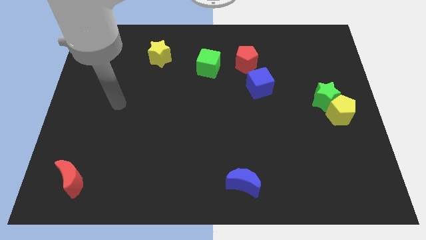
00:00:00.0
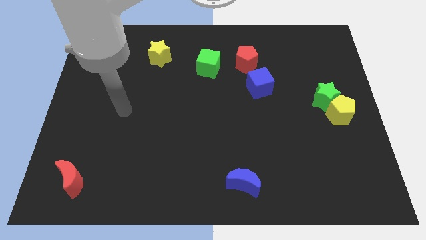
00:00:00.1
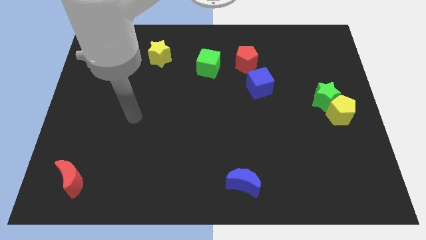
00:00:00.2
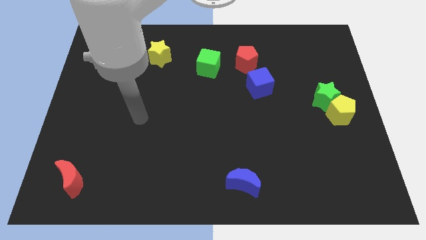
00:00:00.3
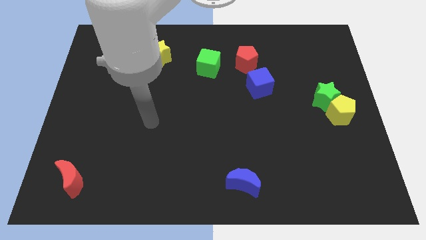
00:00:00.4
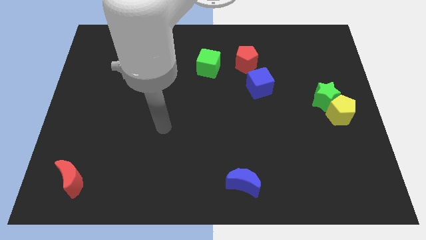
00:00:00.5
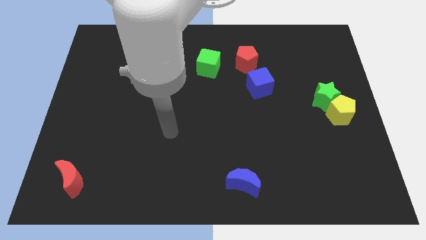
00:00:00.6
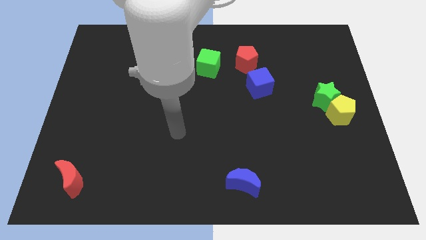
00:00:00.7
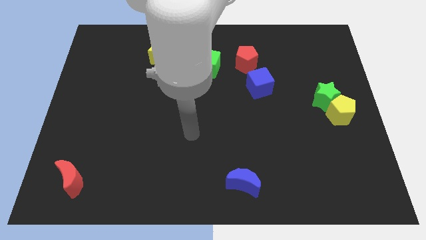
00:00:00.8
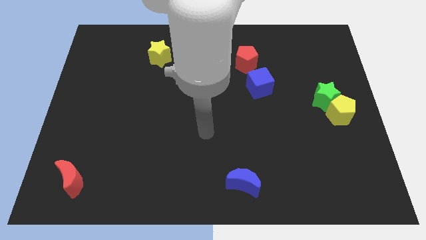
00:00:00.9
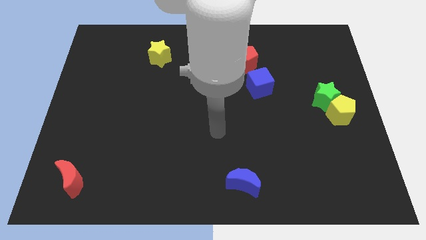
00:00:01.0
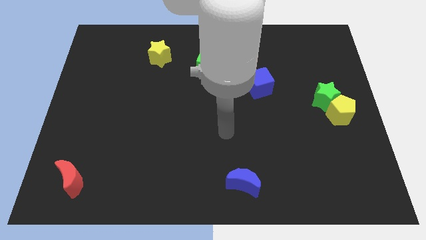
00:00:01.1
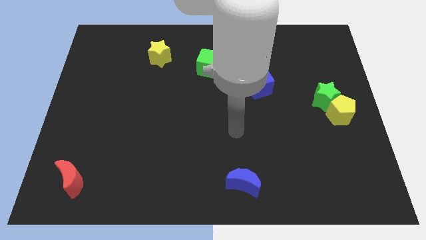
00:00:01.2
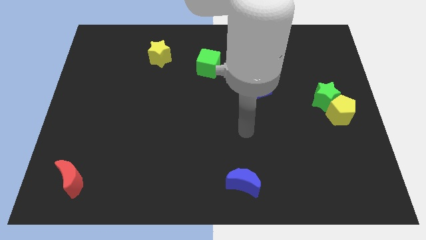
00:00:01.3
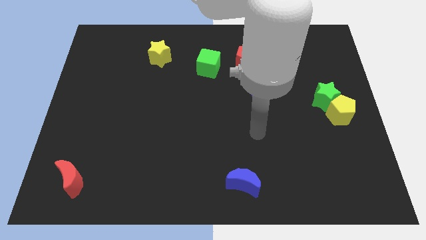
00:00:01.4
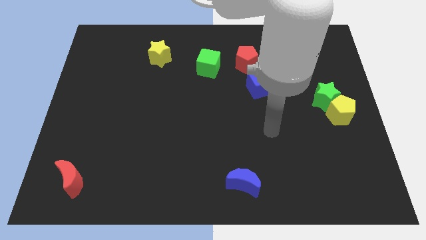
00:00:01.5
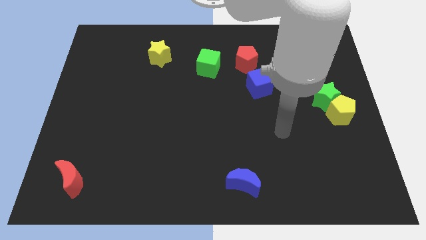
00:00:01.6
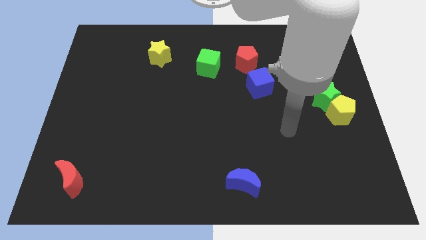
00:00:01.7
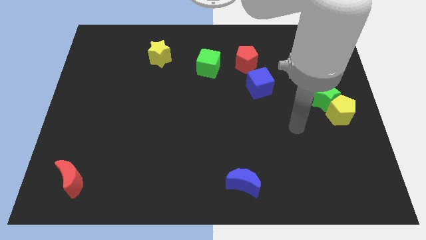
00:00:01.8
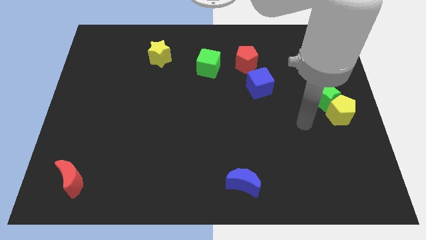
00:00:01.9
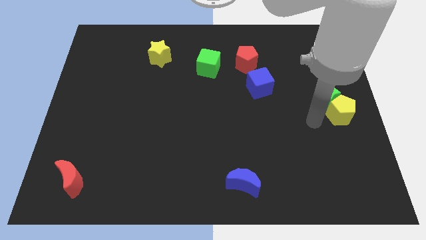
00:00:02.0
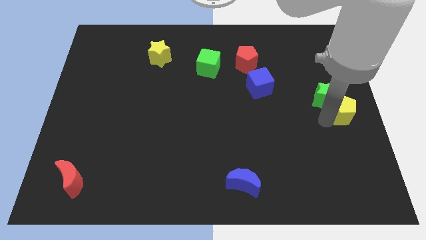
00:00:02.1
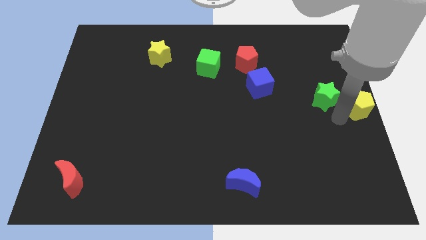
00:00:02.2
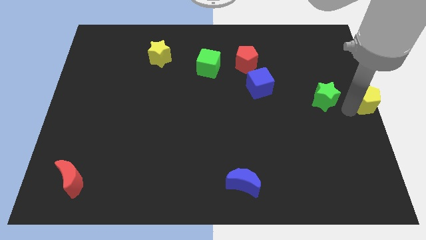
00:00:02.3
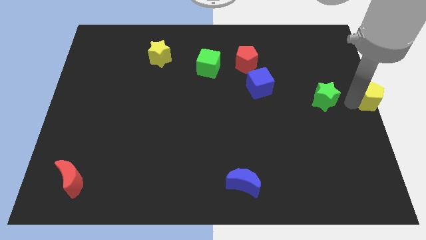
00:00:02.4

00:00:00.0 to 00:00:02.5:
pull the green star apart from the yellow pentagon

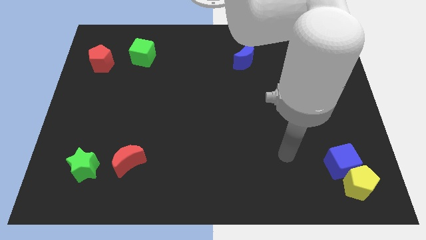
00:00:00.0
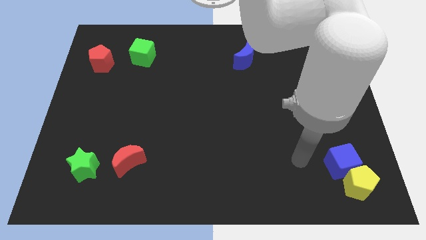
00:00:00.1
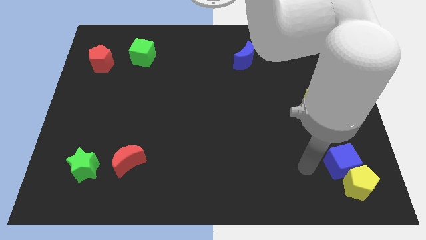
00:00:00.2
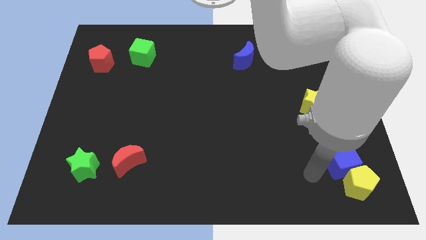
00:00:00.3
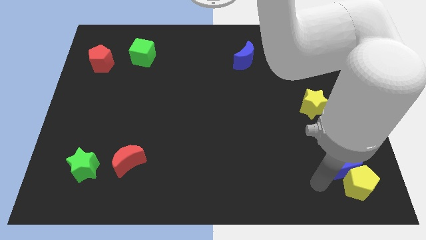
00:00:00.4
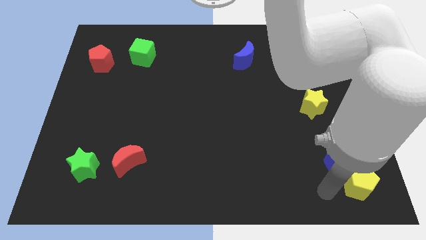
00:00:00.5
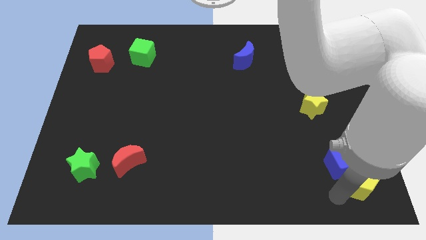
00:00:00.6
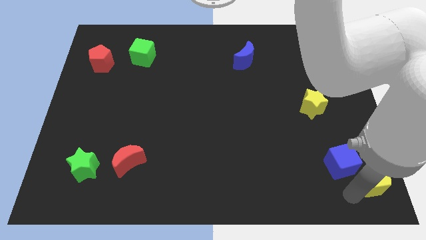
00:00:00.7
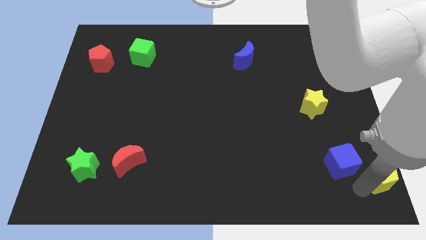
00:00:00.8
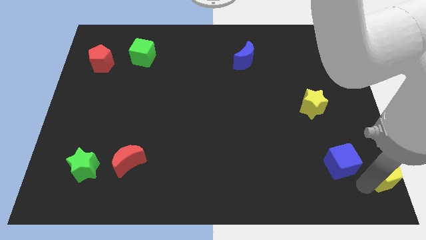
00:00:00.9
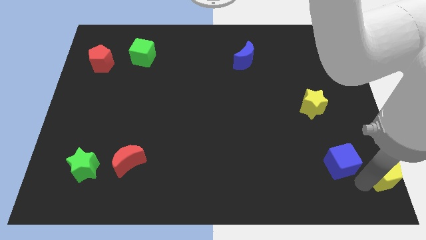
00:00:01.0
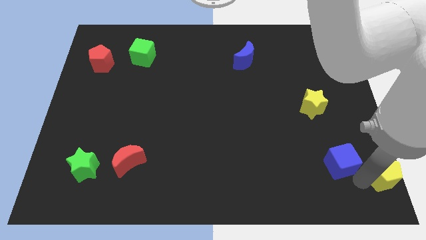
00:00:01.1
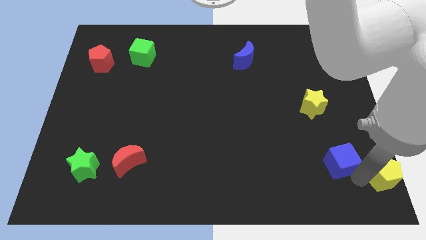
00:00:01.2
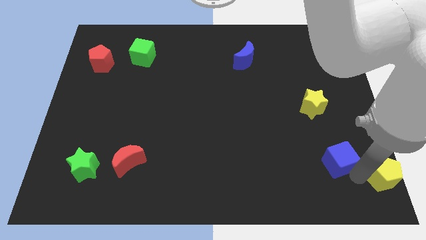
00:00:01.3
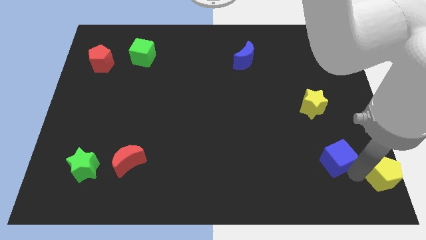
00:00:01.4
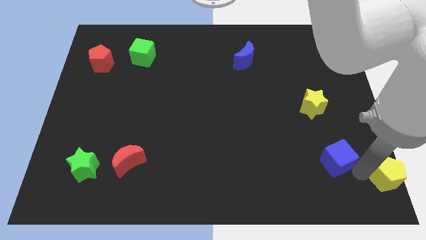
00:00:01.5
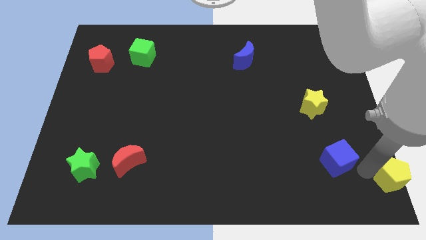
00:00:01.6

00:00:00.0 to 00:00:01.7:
separate the blue cube from the yellow pentagon

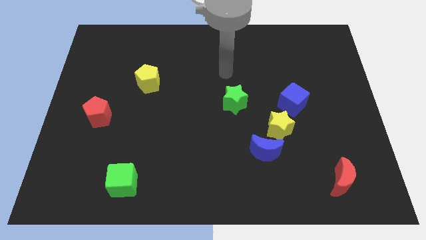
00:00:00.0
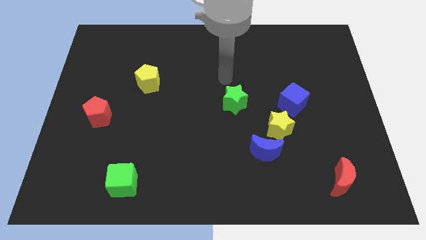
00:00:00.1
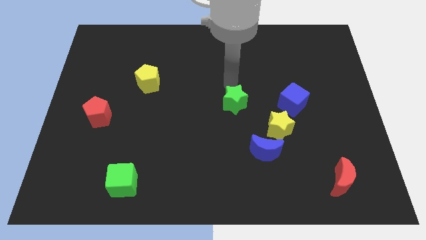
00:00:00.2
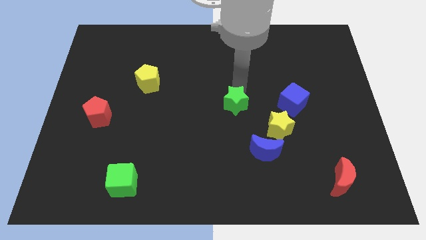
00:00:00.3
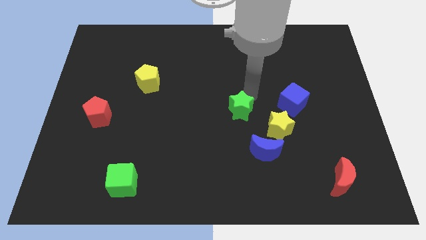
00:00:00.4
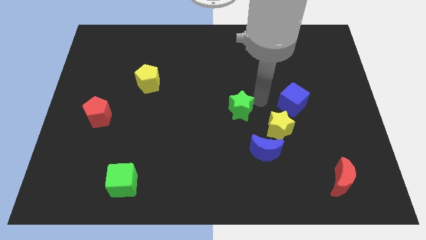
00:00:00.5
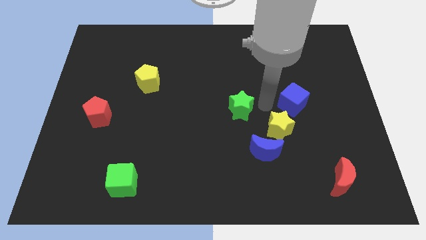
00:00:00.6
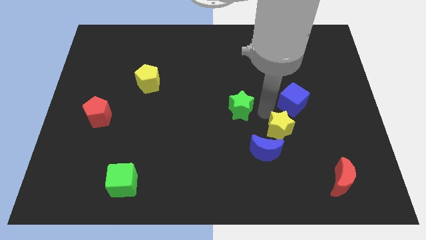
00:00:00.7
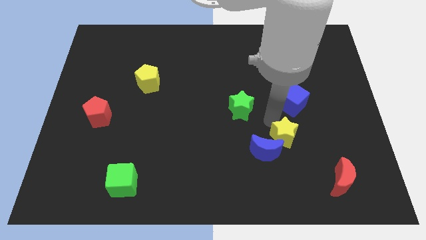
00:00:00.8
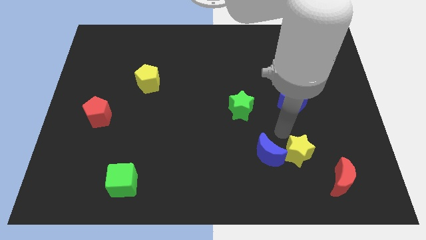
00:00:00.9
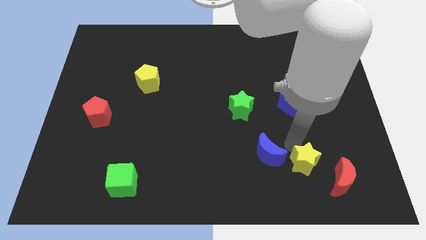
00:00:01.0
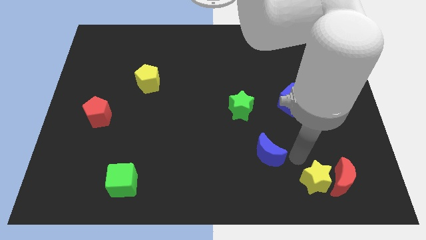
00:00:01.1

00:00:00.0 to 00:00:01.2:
separate the blue moon from the yellow star

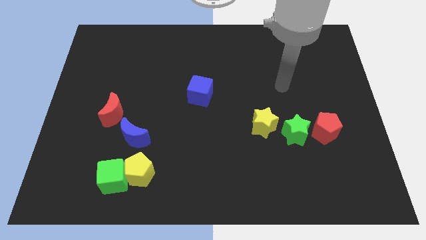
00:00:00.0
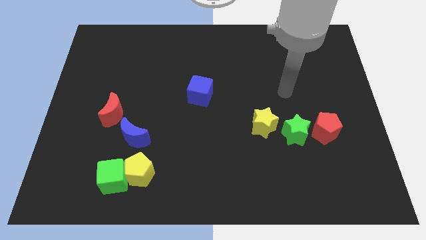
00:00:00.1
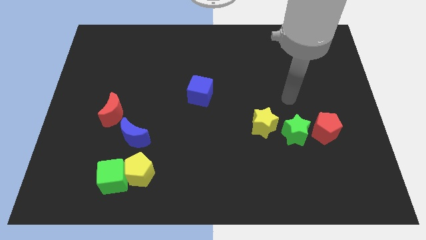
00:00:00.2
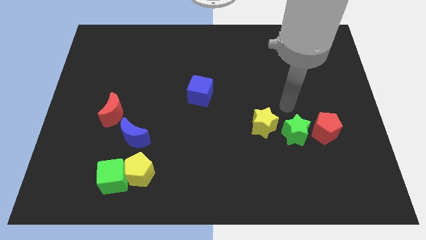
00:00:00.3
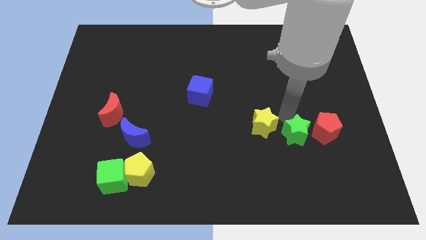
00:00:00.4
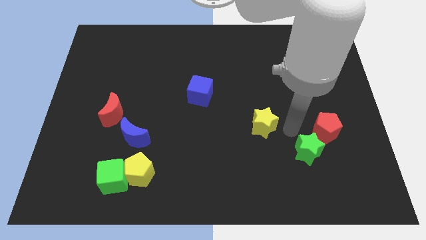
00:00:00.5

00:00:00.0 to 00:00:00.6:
move the yellow star away from the green star

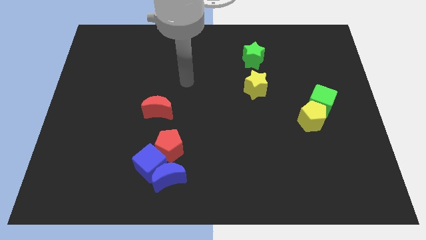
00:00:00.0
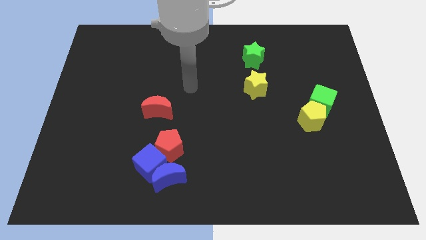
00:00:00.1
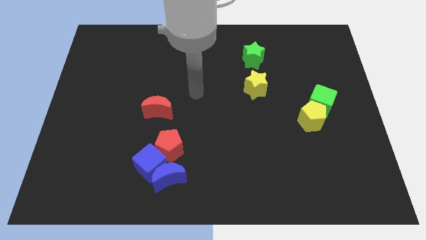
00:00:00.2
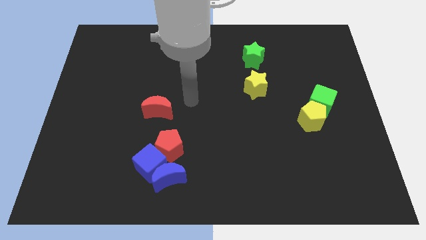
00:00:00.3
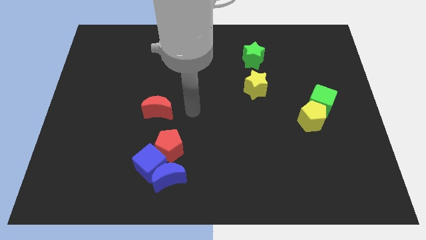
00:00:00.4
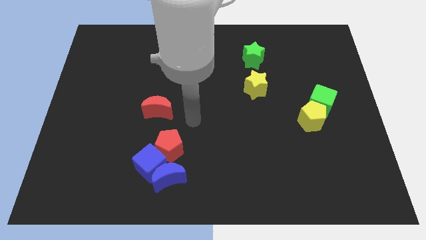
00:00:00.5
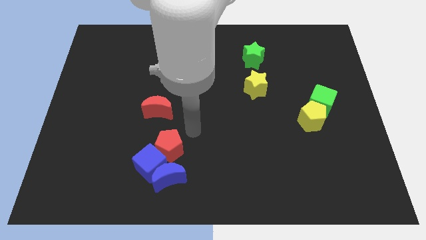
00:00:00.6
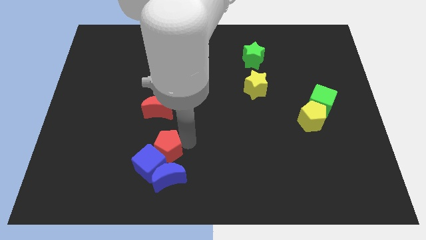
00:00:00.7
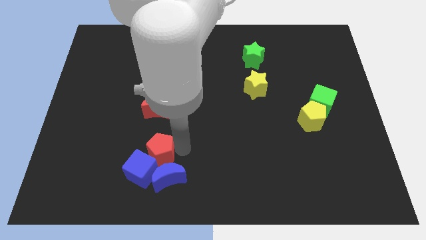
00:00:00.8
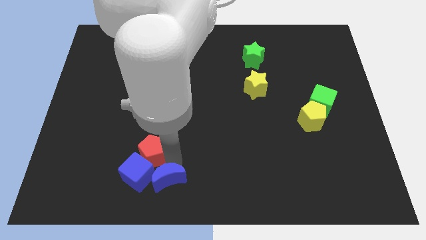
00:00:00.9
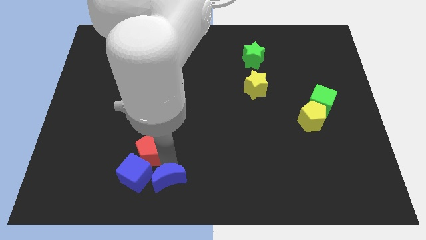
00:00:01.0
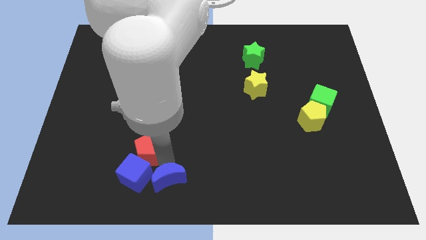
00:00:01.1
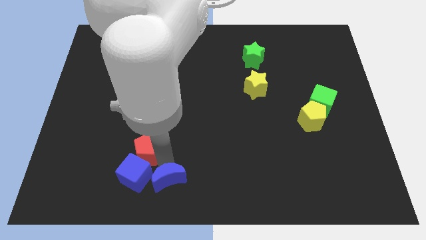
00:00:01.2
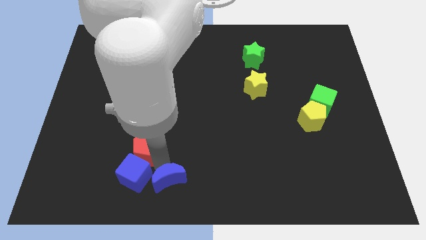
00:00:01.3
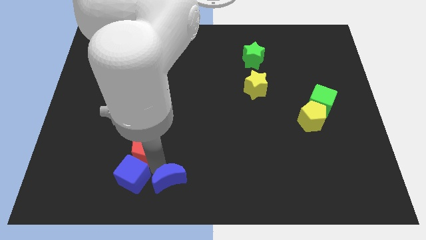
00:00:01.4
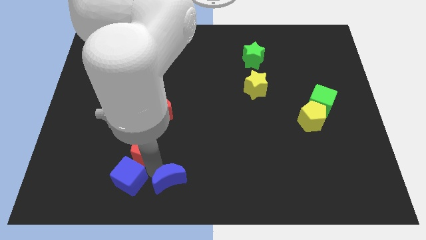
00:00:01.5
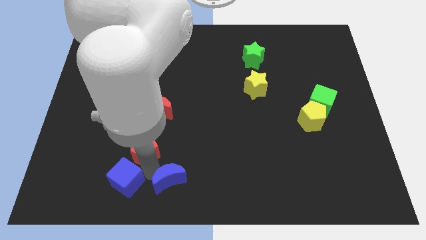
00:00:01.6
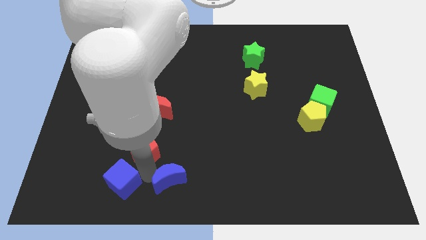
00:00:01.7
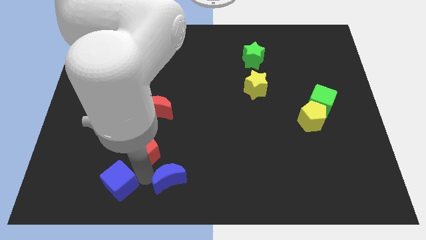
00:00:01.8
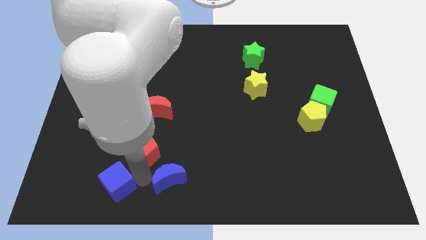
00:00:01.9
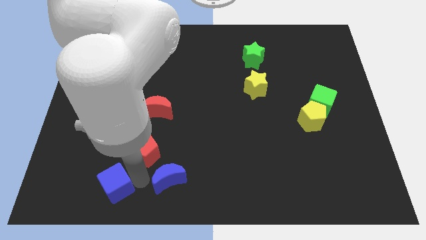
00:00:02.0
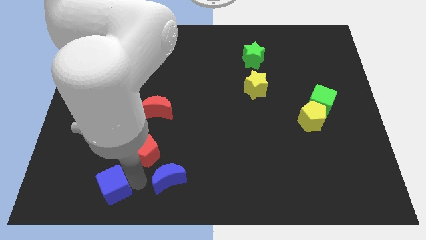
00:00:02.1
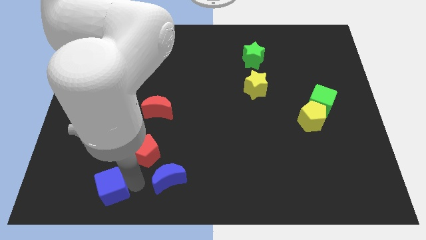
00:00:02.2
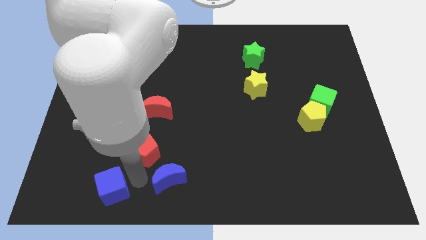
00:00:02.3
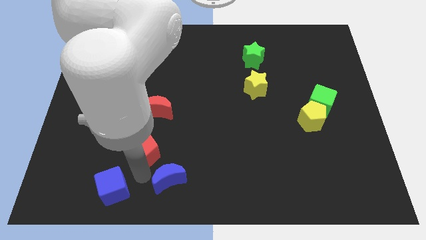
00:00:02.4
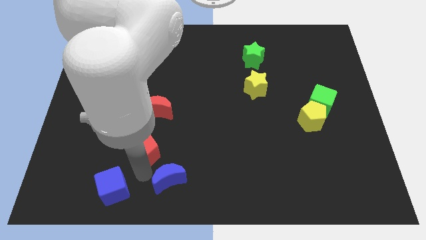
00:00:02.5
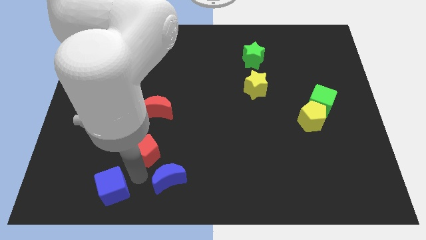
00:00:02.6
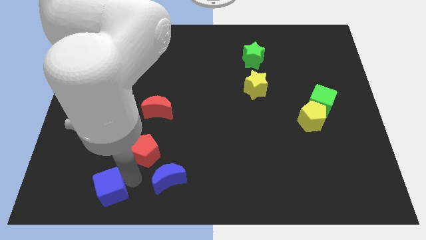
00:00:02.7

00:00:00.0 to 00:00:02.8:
separate the blue cube from the blue moon and red pentagon

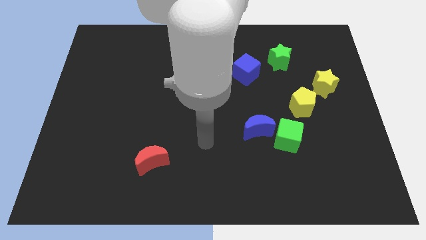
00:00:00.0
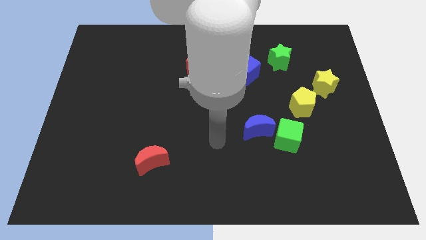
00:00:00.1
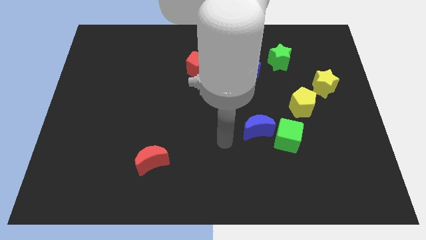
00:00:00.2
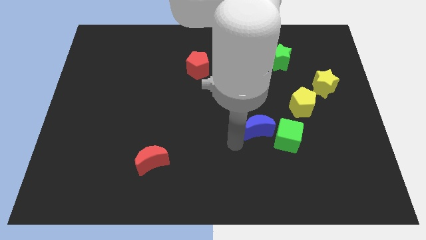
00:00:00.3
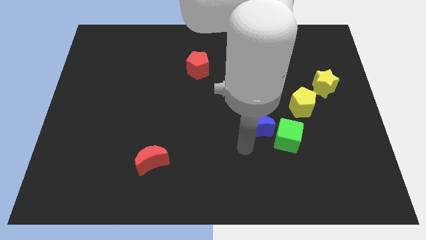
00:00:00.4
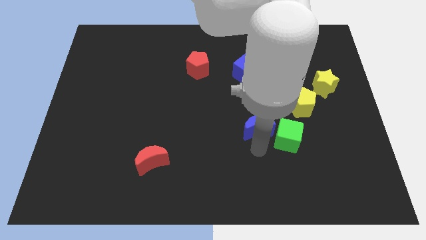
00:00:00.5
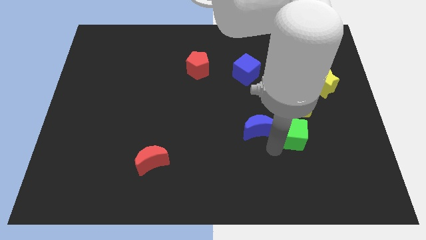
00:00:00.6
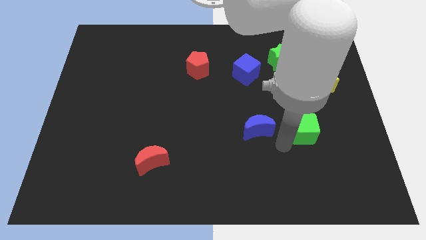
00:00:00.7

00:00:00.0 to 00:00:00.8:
move the blue moon away from the green cube
